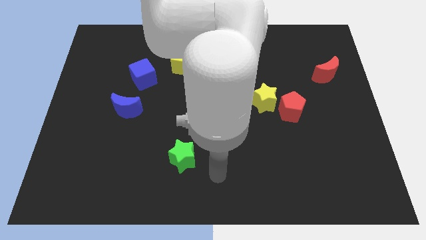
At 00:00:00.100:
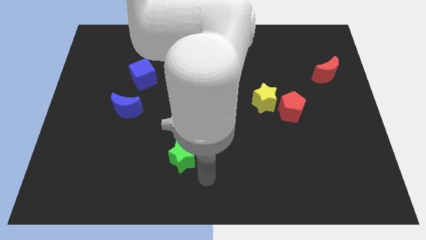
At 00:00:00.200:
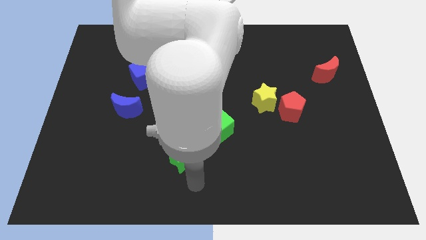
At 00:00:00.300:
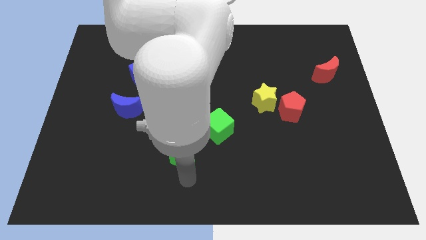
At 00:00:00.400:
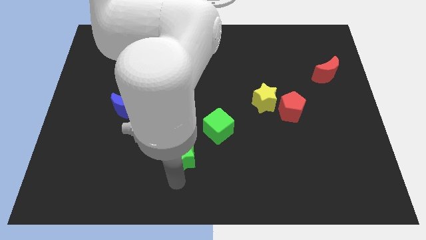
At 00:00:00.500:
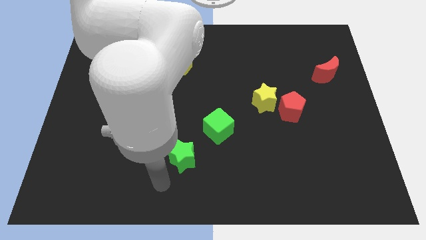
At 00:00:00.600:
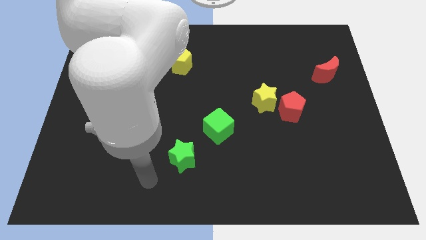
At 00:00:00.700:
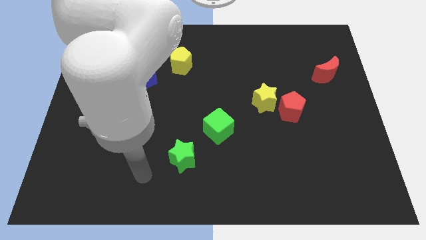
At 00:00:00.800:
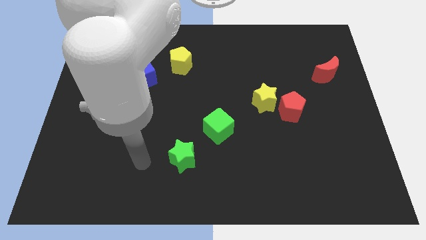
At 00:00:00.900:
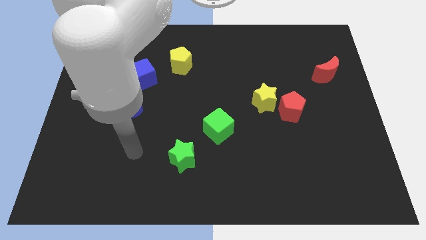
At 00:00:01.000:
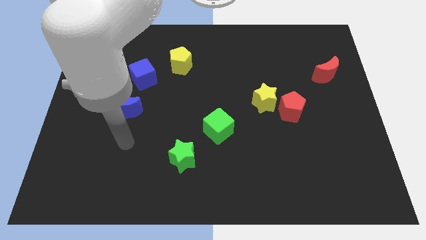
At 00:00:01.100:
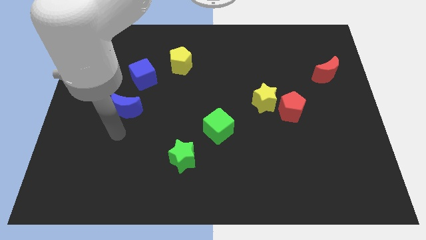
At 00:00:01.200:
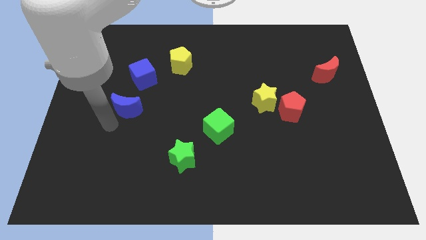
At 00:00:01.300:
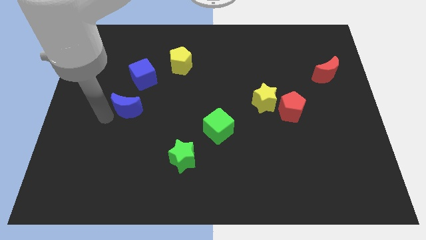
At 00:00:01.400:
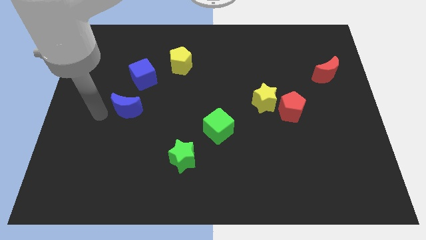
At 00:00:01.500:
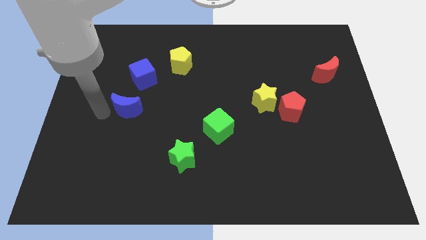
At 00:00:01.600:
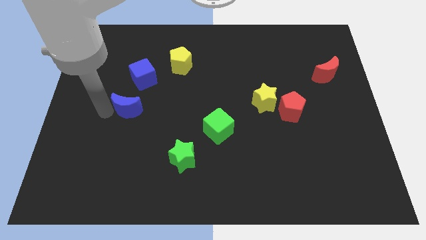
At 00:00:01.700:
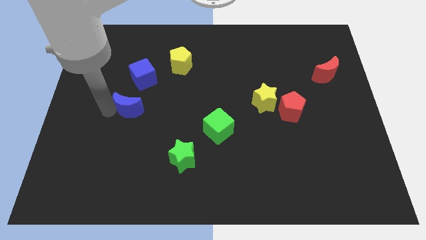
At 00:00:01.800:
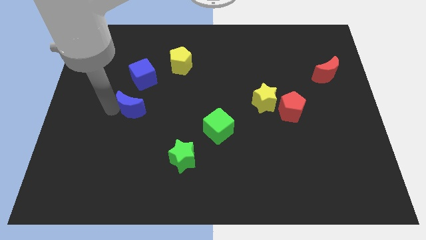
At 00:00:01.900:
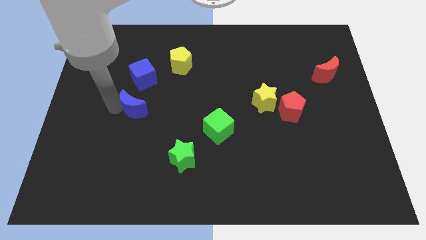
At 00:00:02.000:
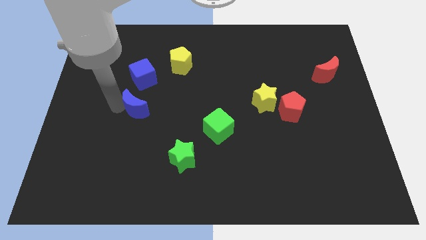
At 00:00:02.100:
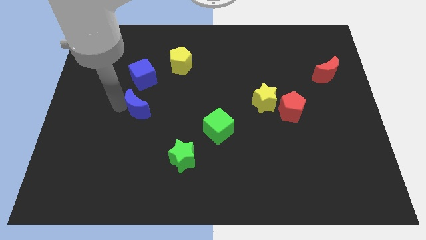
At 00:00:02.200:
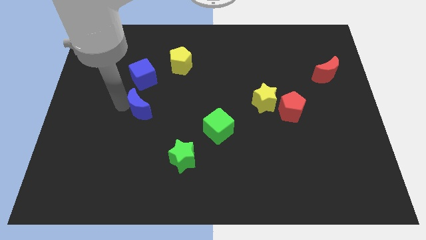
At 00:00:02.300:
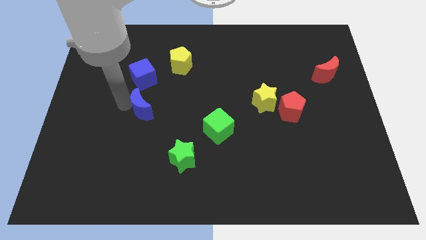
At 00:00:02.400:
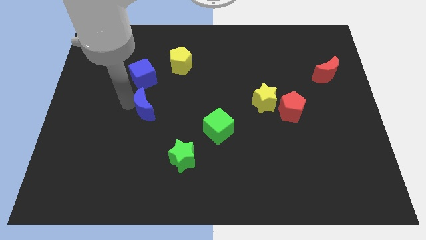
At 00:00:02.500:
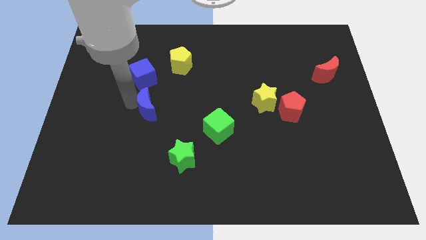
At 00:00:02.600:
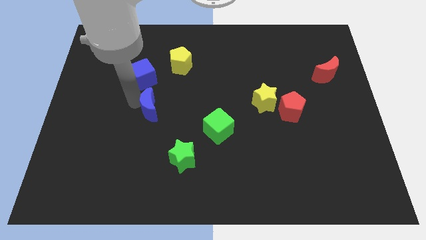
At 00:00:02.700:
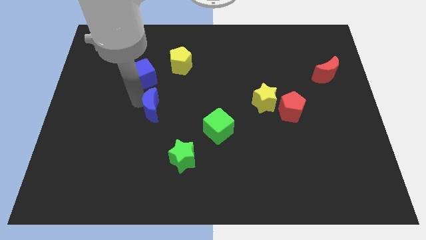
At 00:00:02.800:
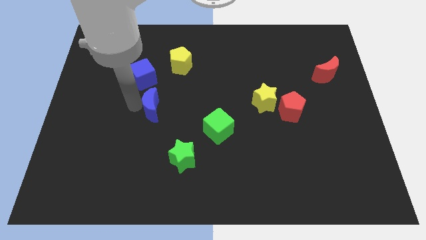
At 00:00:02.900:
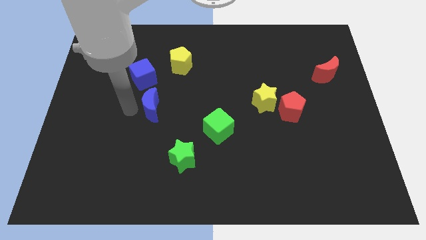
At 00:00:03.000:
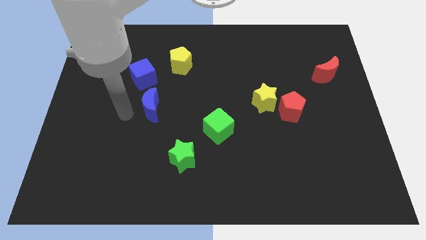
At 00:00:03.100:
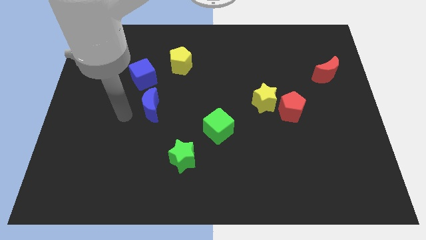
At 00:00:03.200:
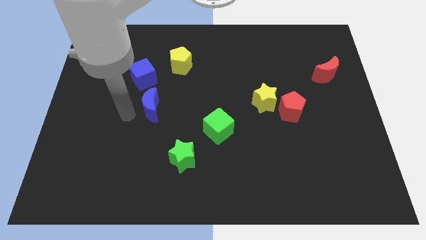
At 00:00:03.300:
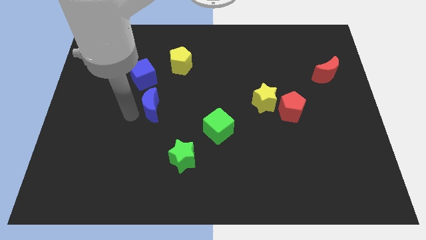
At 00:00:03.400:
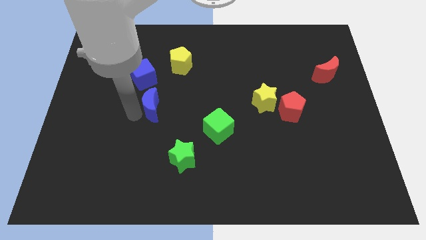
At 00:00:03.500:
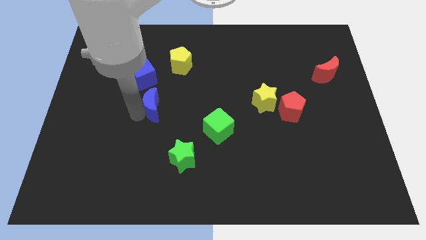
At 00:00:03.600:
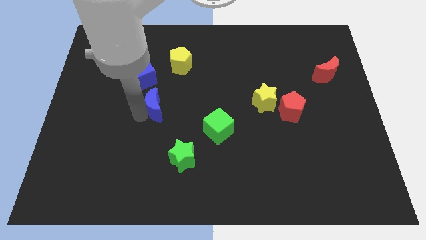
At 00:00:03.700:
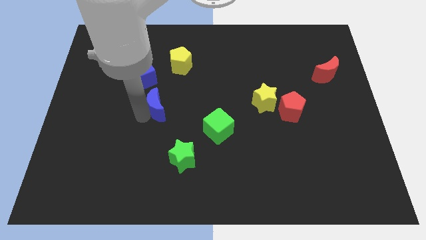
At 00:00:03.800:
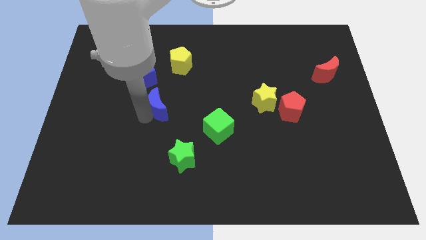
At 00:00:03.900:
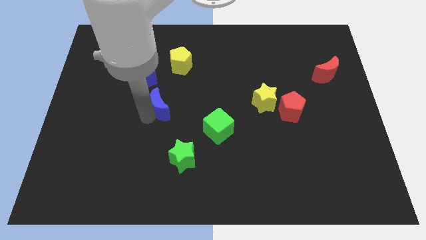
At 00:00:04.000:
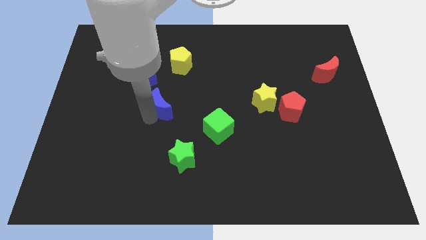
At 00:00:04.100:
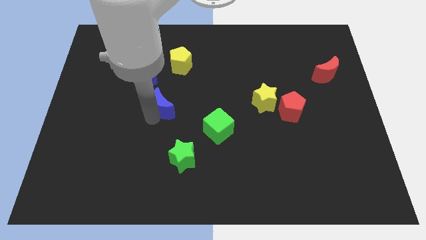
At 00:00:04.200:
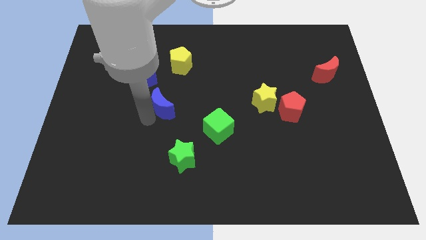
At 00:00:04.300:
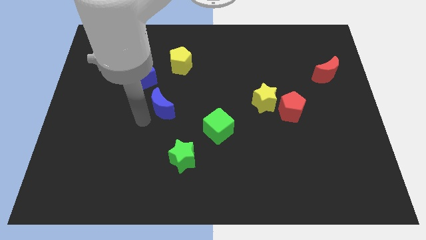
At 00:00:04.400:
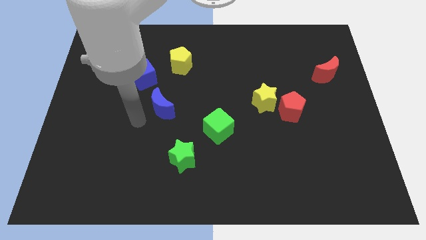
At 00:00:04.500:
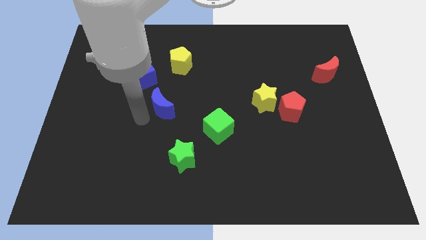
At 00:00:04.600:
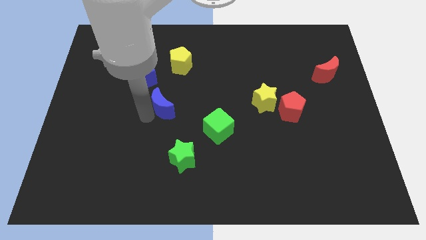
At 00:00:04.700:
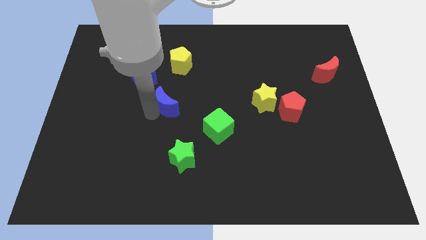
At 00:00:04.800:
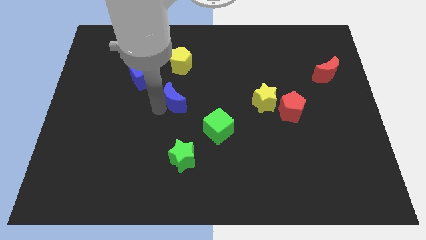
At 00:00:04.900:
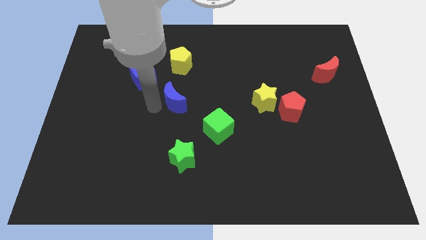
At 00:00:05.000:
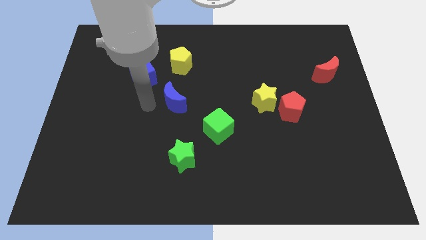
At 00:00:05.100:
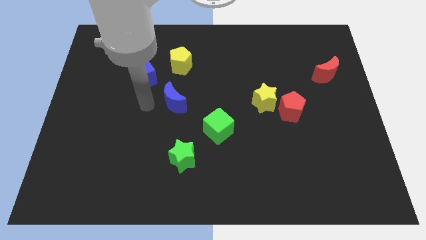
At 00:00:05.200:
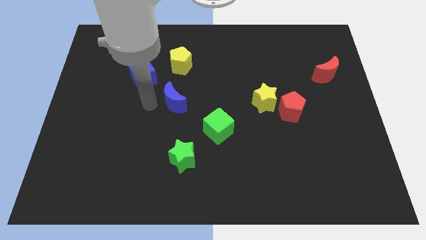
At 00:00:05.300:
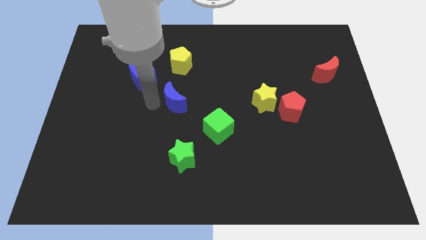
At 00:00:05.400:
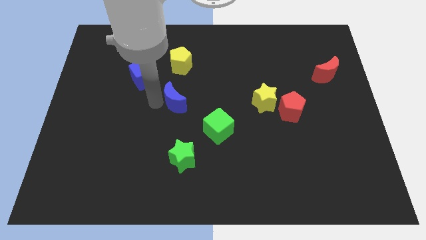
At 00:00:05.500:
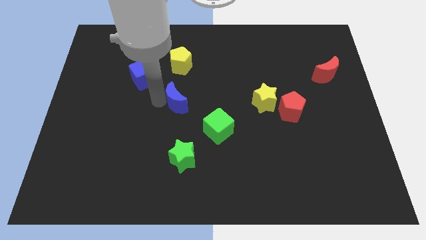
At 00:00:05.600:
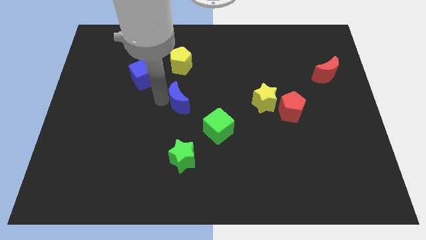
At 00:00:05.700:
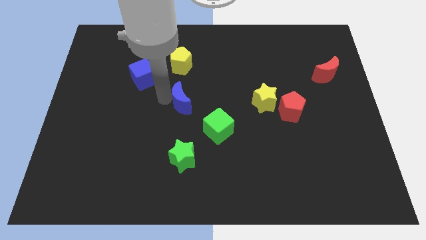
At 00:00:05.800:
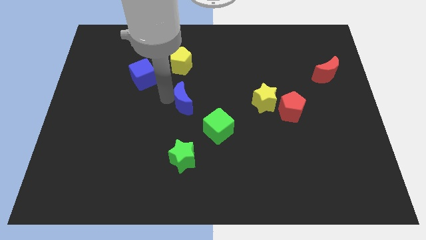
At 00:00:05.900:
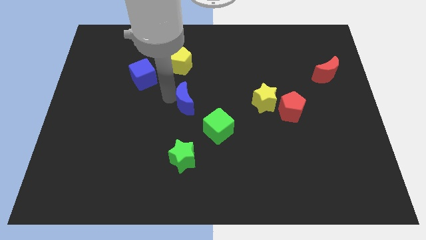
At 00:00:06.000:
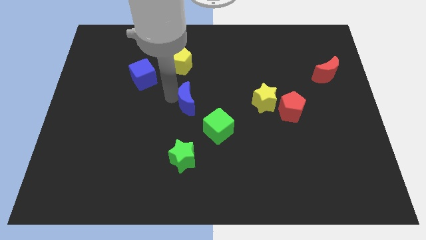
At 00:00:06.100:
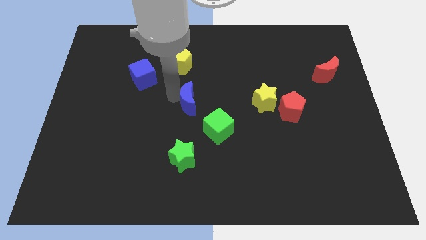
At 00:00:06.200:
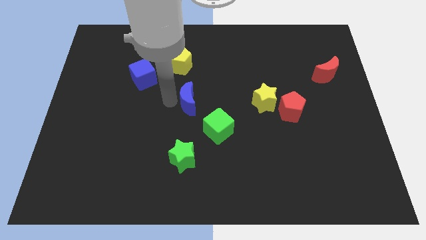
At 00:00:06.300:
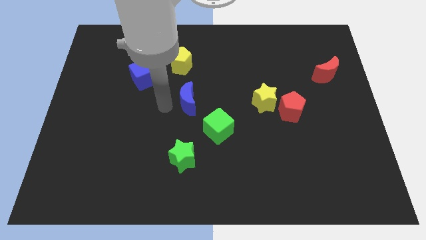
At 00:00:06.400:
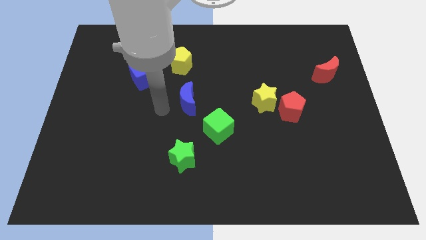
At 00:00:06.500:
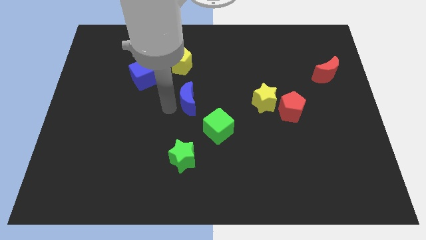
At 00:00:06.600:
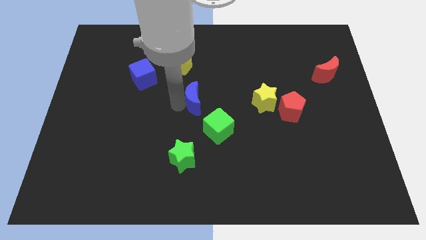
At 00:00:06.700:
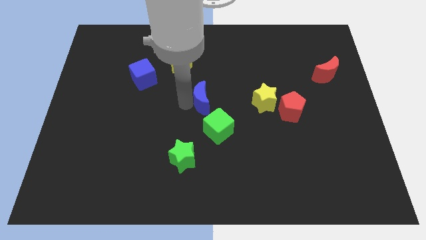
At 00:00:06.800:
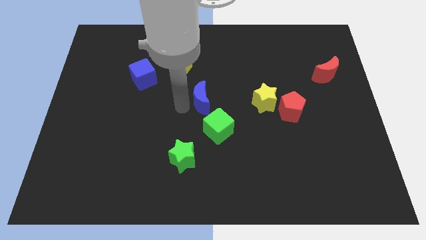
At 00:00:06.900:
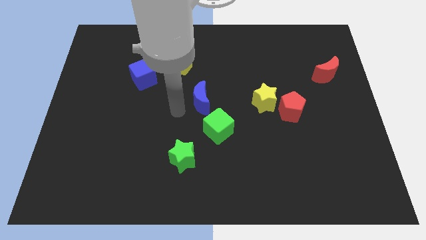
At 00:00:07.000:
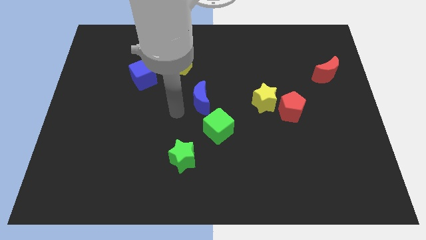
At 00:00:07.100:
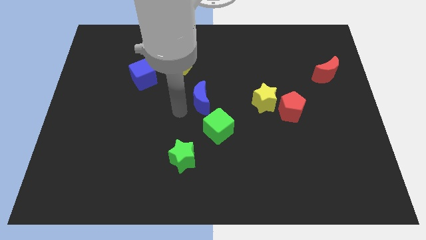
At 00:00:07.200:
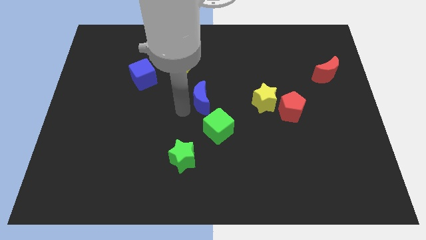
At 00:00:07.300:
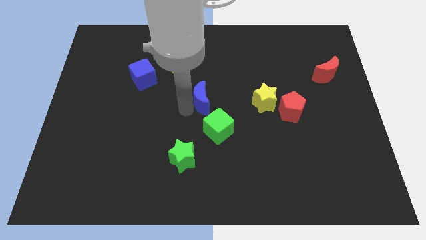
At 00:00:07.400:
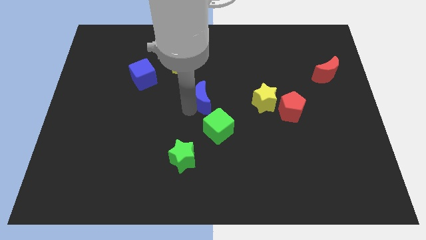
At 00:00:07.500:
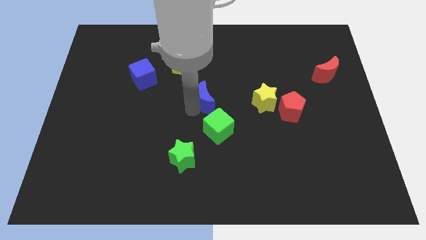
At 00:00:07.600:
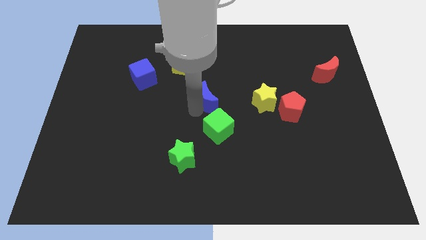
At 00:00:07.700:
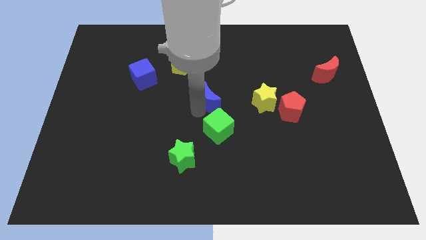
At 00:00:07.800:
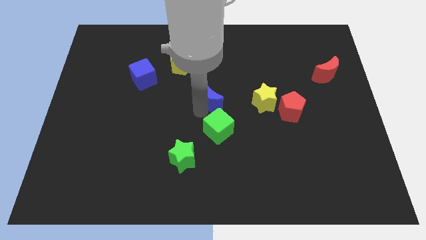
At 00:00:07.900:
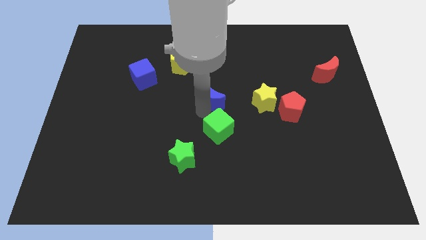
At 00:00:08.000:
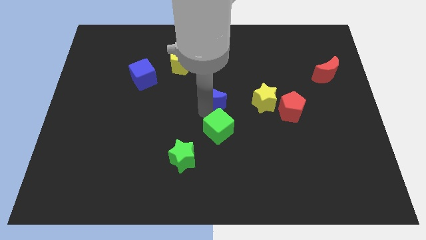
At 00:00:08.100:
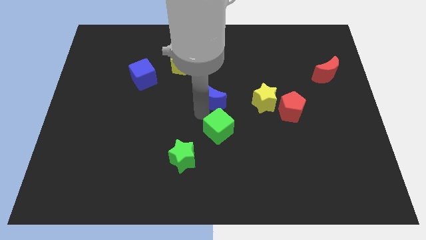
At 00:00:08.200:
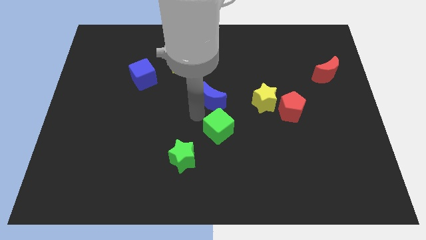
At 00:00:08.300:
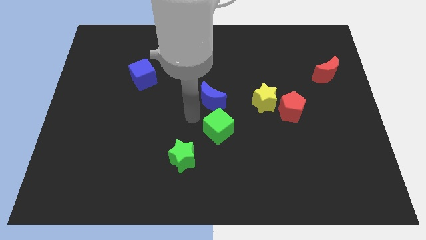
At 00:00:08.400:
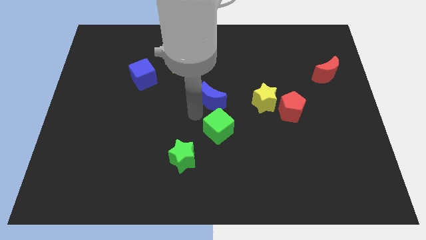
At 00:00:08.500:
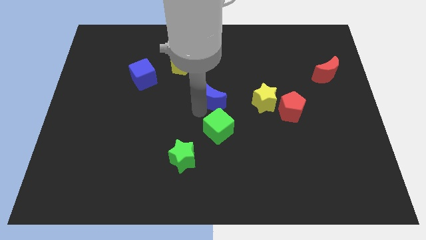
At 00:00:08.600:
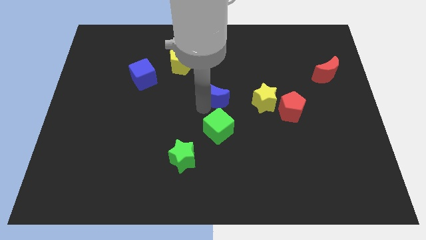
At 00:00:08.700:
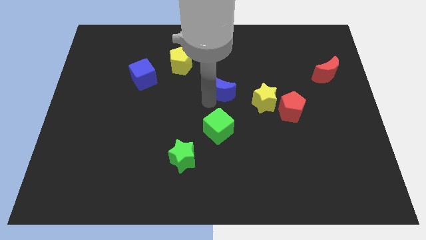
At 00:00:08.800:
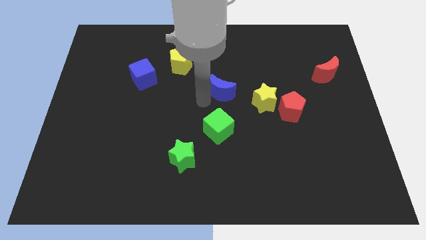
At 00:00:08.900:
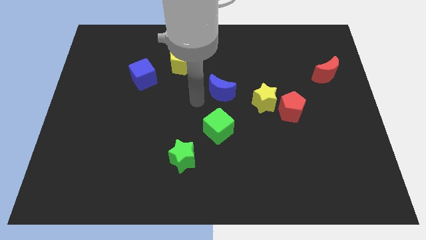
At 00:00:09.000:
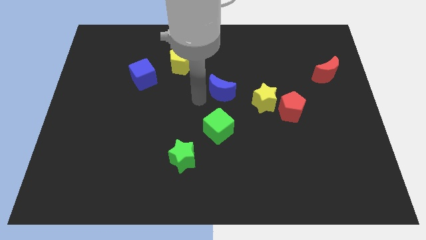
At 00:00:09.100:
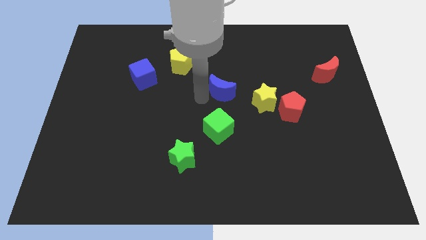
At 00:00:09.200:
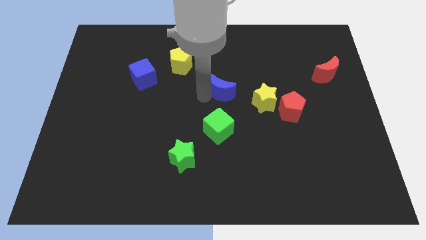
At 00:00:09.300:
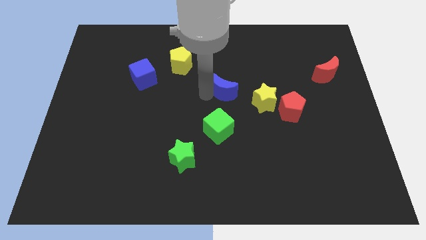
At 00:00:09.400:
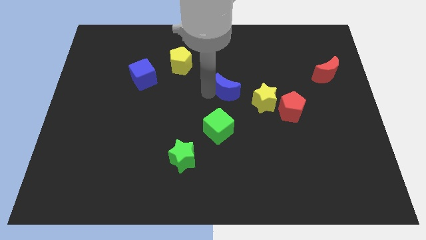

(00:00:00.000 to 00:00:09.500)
push the blue moon diagonally up and to the left of the yellow star
